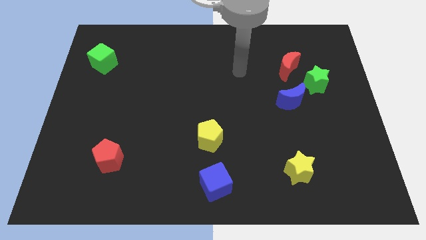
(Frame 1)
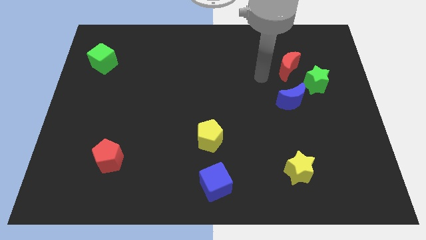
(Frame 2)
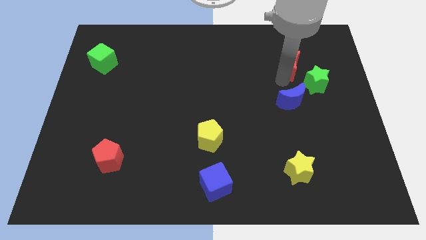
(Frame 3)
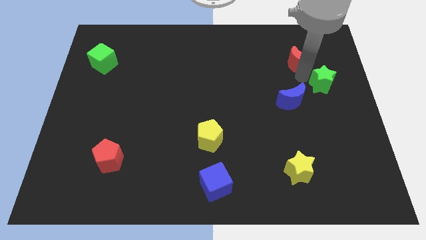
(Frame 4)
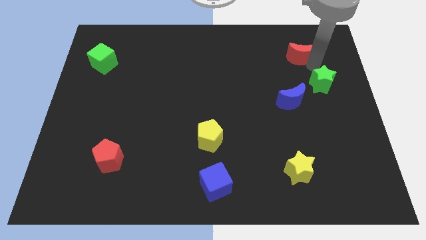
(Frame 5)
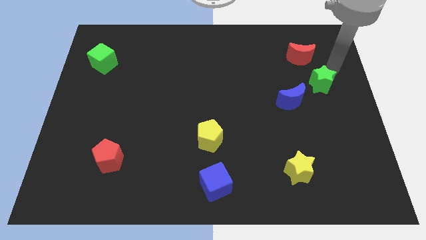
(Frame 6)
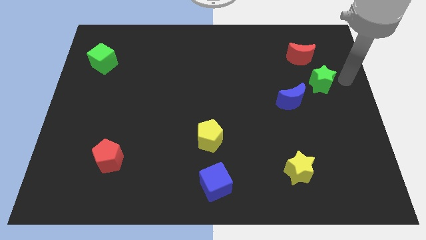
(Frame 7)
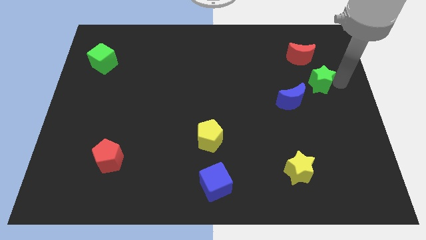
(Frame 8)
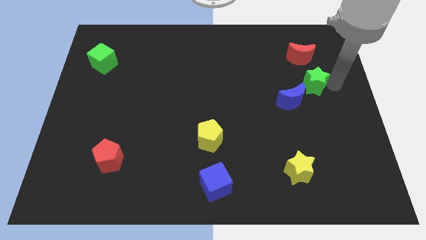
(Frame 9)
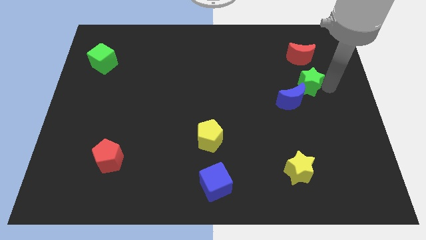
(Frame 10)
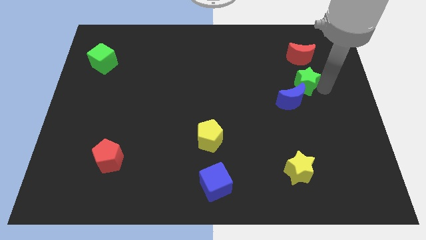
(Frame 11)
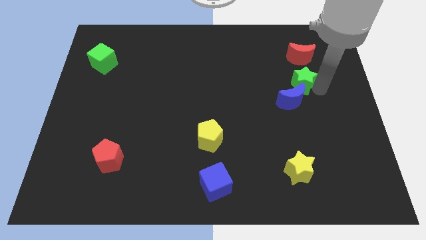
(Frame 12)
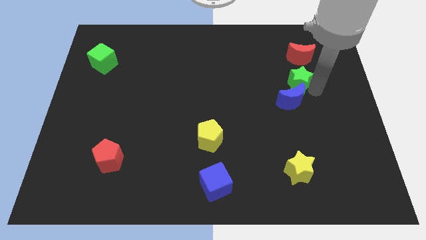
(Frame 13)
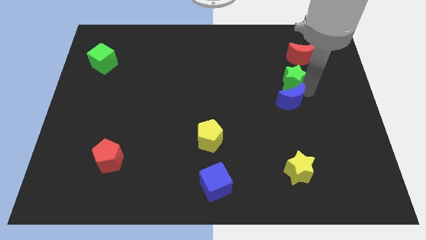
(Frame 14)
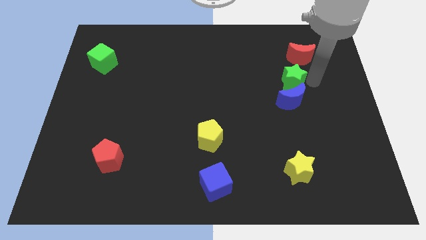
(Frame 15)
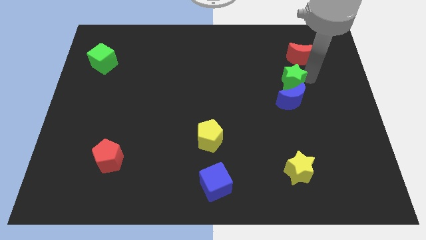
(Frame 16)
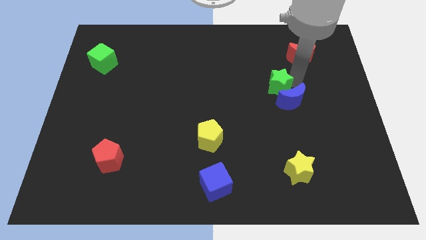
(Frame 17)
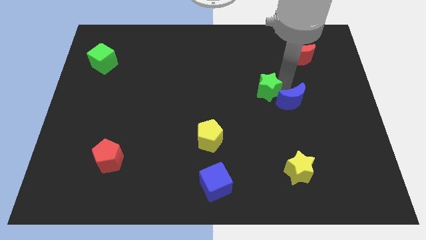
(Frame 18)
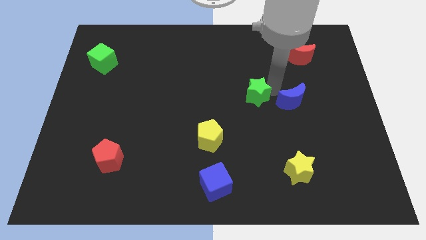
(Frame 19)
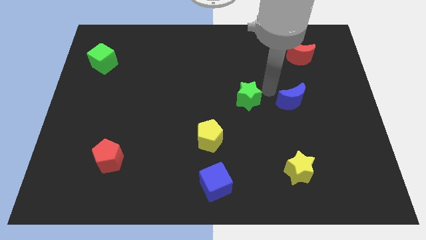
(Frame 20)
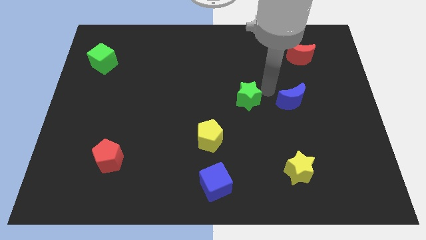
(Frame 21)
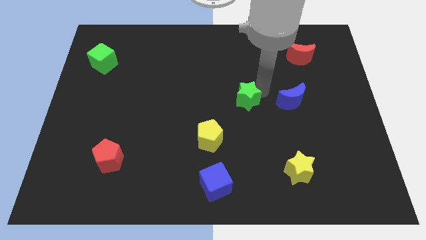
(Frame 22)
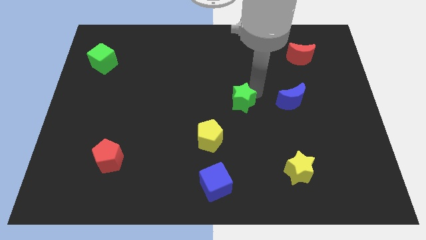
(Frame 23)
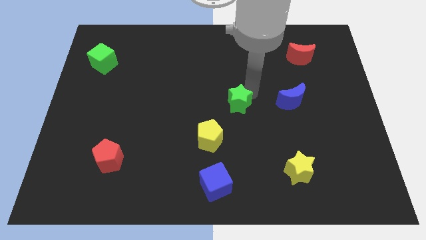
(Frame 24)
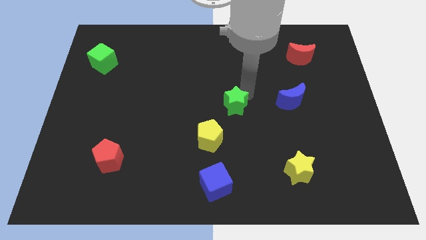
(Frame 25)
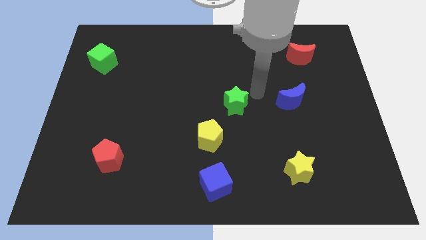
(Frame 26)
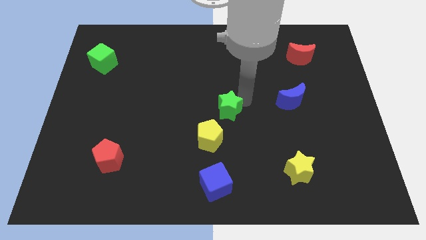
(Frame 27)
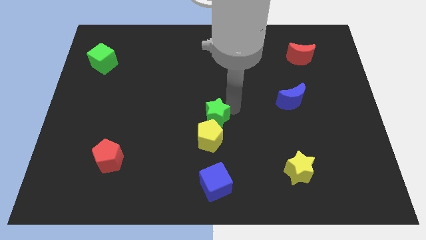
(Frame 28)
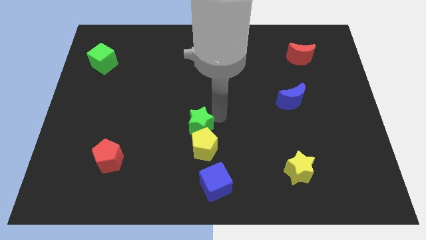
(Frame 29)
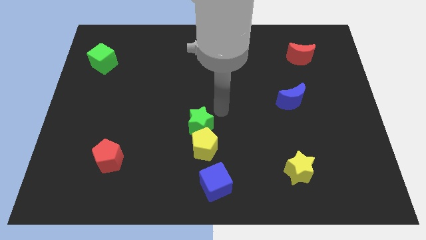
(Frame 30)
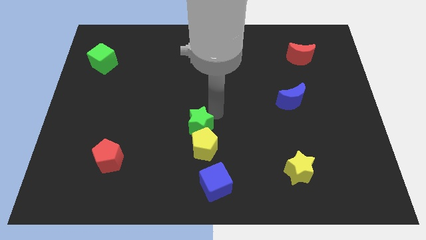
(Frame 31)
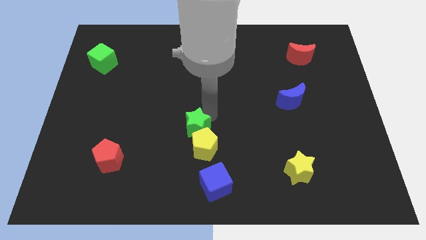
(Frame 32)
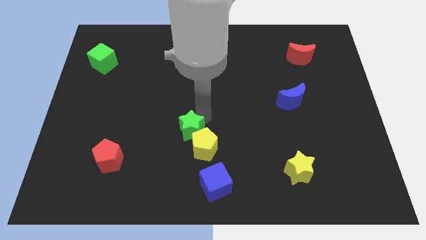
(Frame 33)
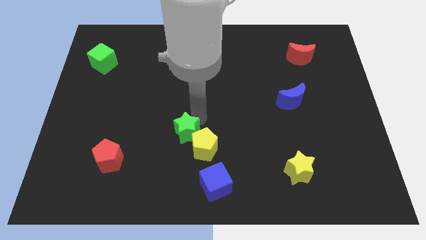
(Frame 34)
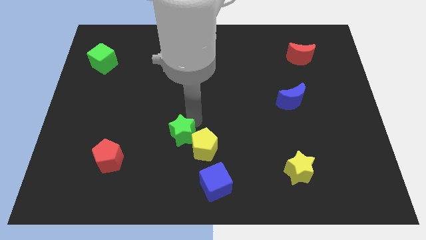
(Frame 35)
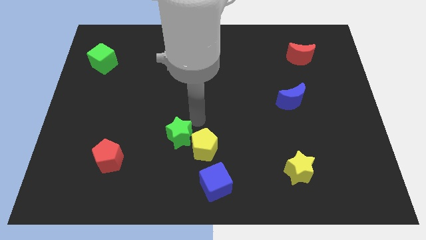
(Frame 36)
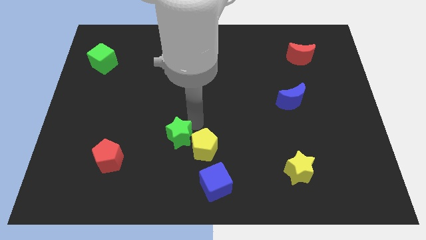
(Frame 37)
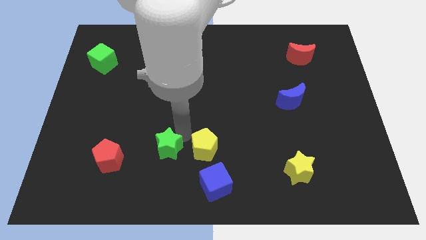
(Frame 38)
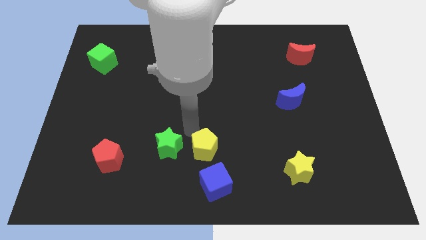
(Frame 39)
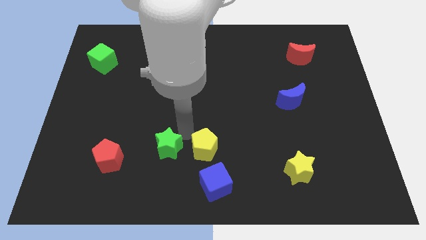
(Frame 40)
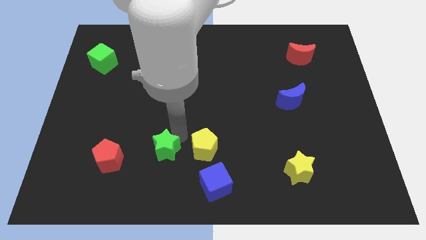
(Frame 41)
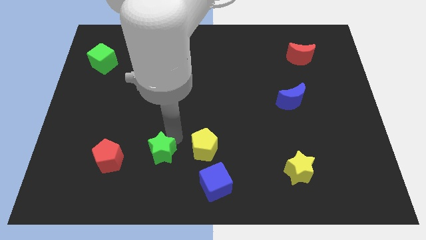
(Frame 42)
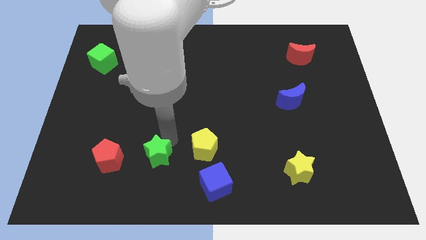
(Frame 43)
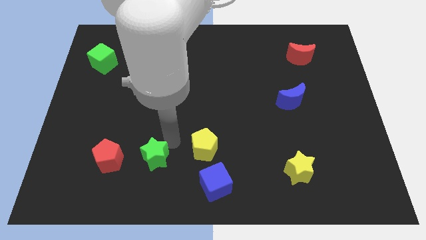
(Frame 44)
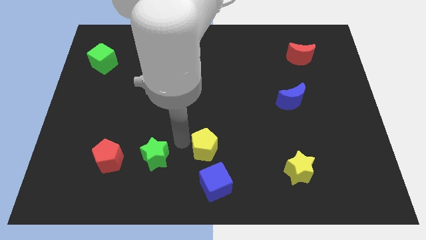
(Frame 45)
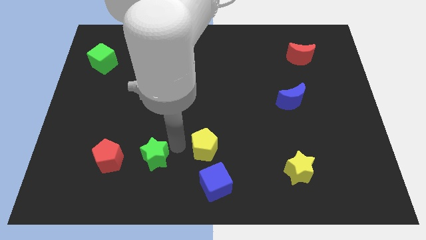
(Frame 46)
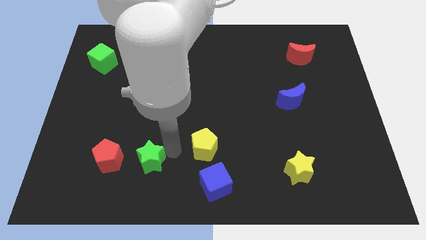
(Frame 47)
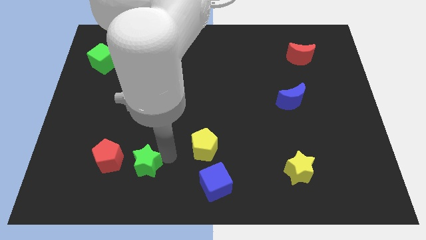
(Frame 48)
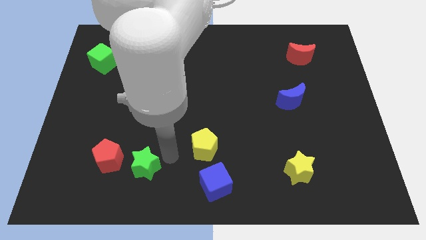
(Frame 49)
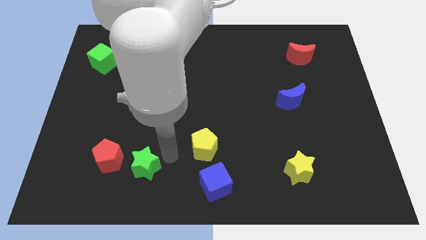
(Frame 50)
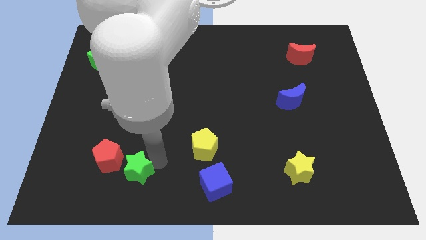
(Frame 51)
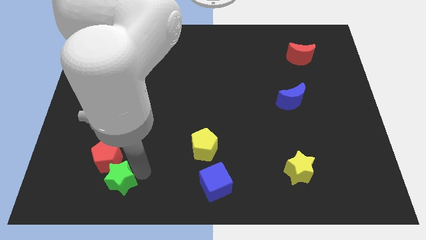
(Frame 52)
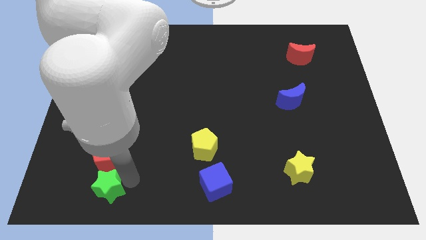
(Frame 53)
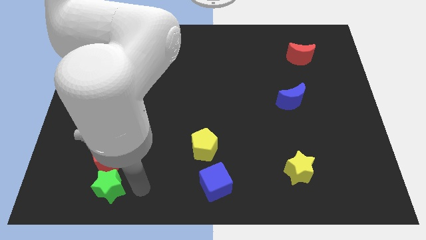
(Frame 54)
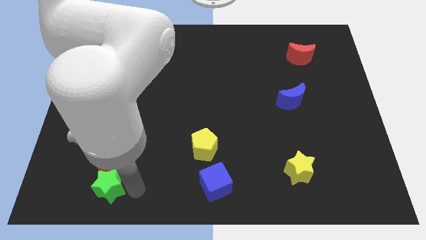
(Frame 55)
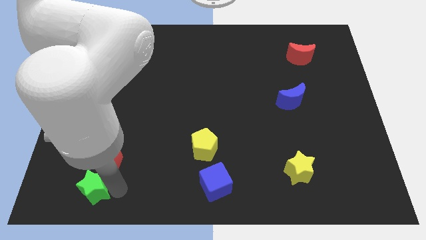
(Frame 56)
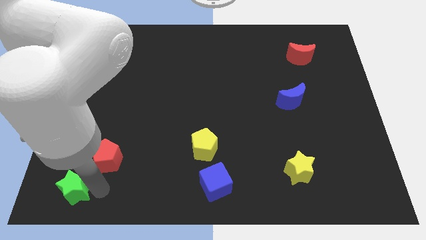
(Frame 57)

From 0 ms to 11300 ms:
push the green star to the bottom left corner

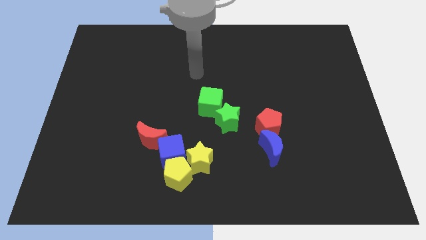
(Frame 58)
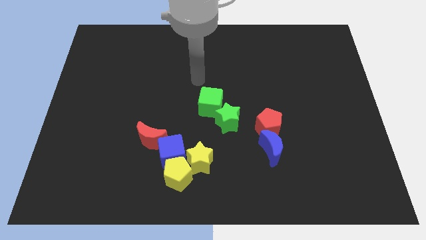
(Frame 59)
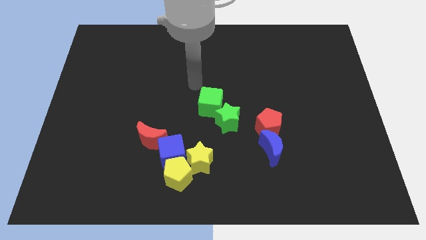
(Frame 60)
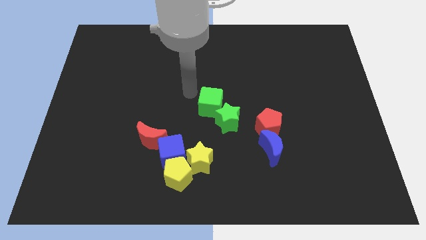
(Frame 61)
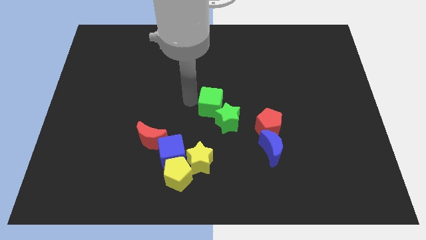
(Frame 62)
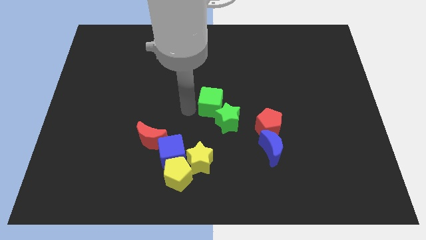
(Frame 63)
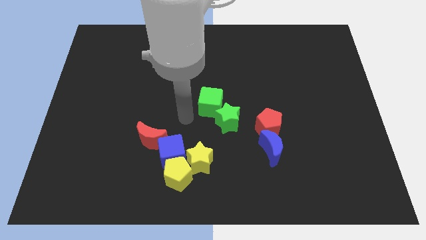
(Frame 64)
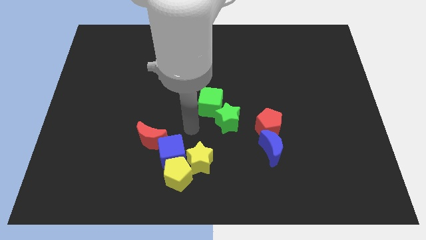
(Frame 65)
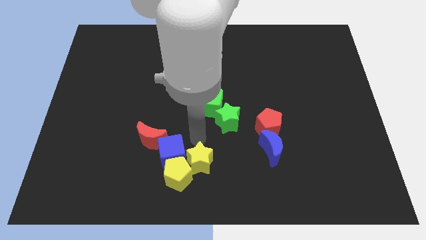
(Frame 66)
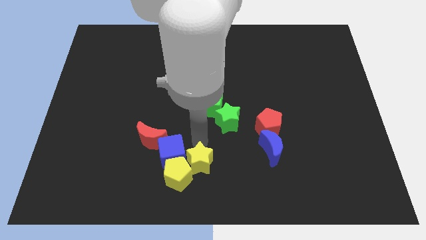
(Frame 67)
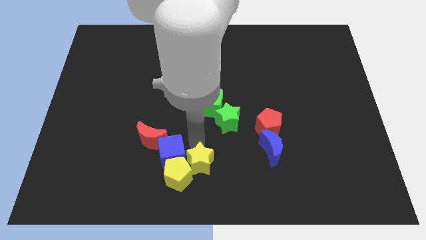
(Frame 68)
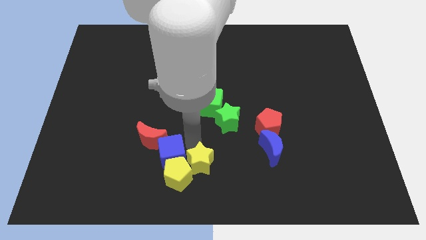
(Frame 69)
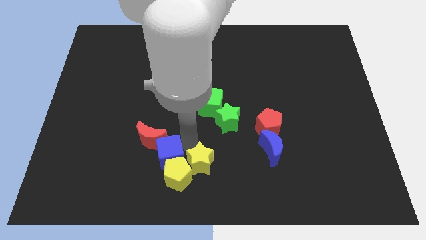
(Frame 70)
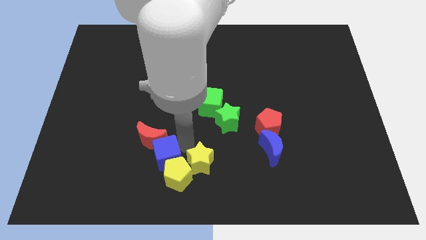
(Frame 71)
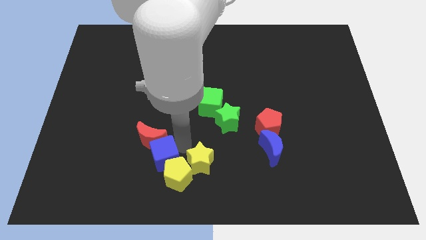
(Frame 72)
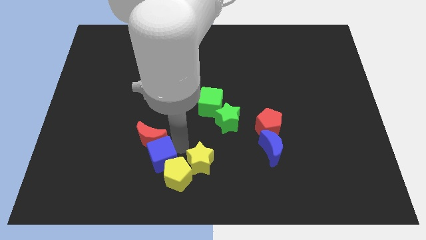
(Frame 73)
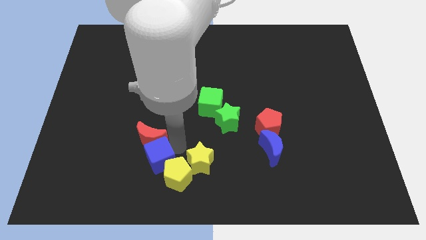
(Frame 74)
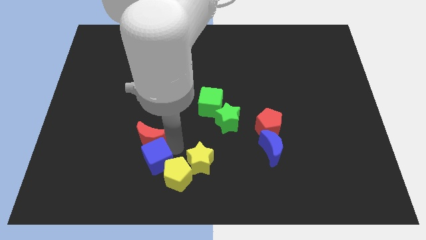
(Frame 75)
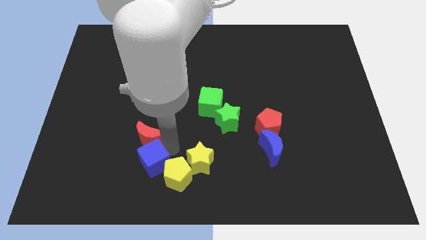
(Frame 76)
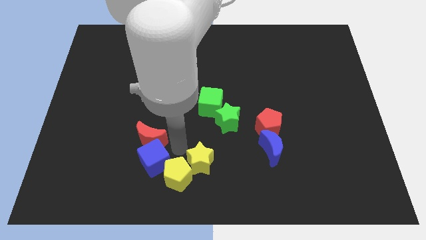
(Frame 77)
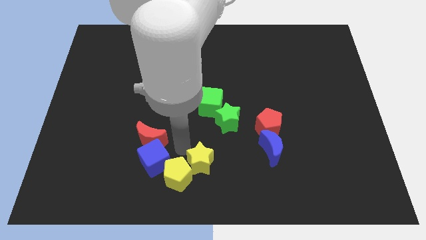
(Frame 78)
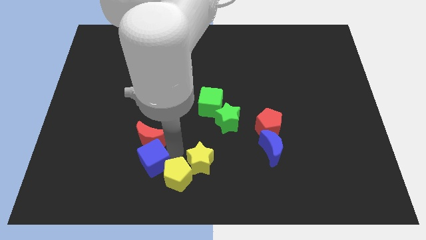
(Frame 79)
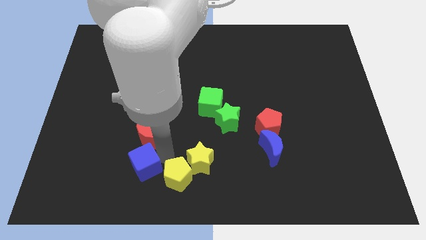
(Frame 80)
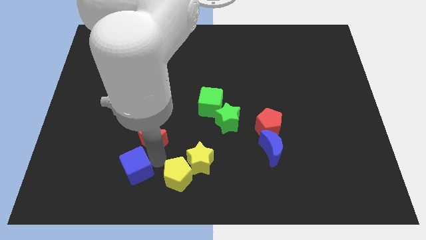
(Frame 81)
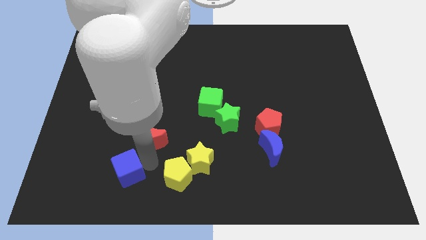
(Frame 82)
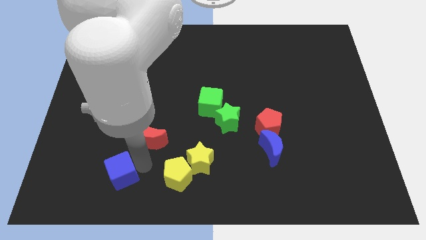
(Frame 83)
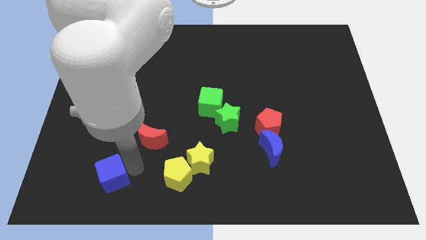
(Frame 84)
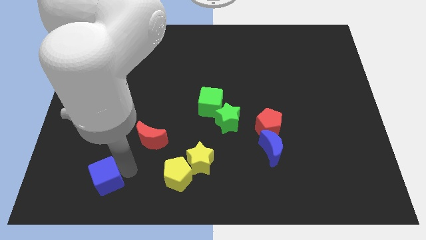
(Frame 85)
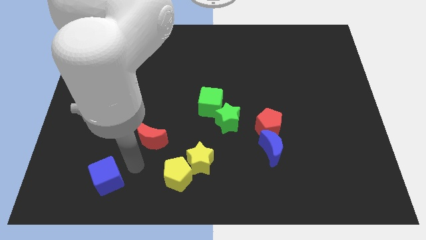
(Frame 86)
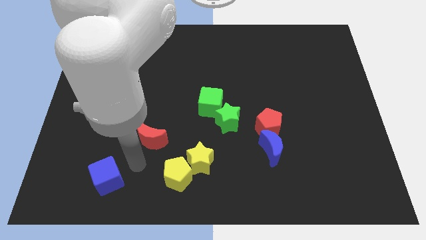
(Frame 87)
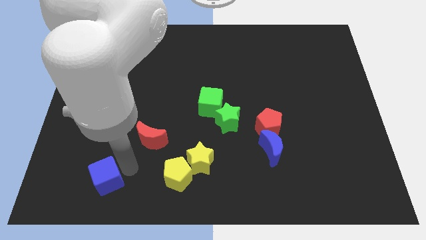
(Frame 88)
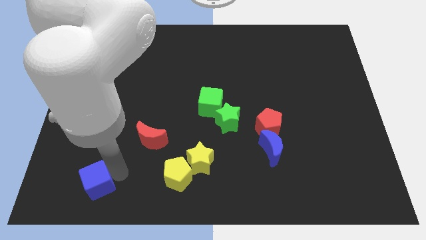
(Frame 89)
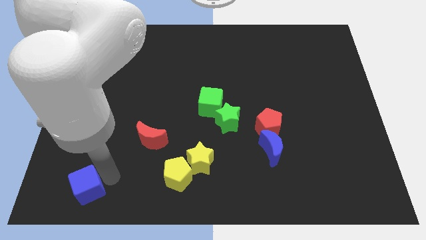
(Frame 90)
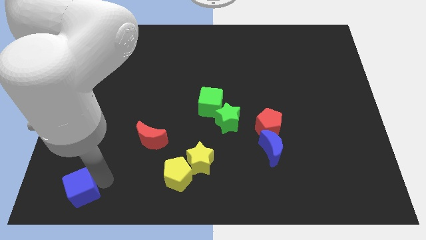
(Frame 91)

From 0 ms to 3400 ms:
push the blue cube to the lower left corner
